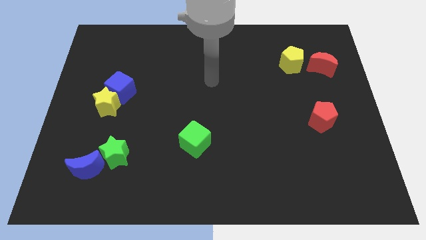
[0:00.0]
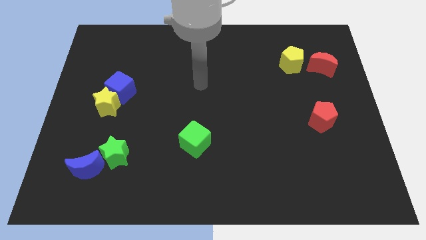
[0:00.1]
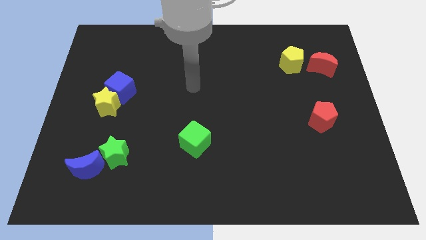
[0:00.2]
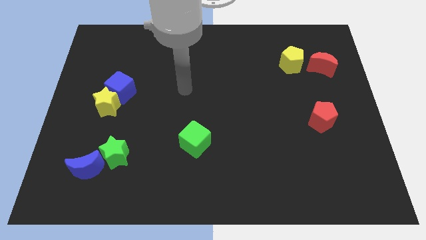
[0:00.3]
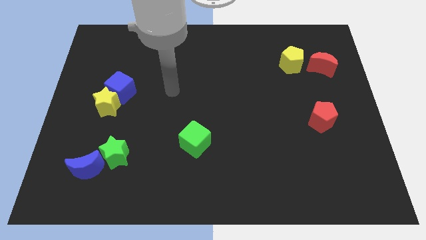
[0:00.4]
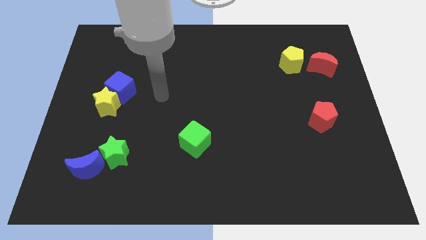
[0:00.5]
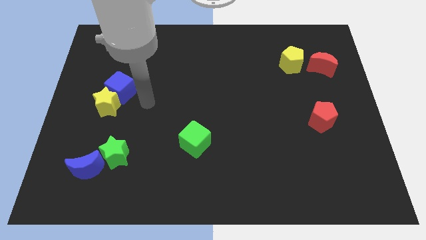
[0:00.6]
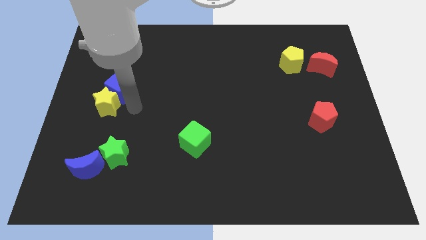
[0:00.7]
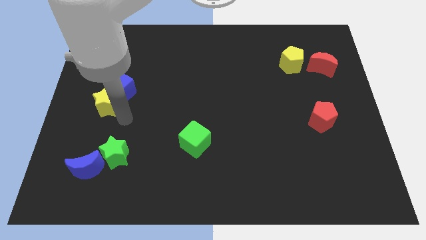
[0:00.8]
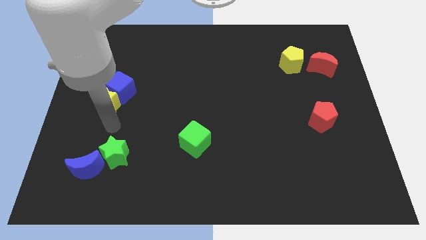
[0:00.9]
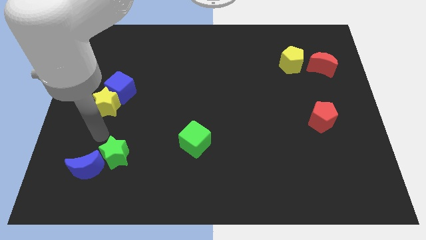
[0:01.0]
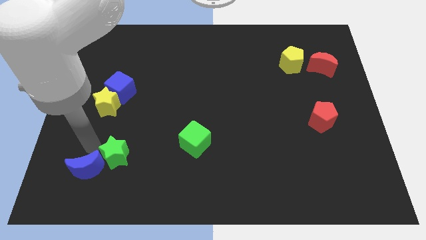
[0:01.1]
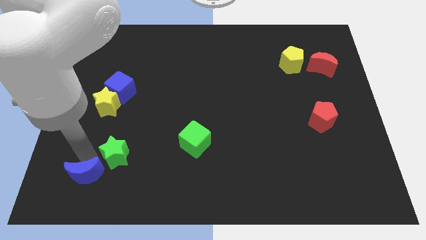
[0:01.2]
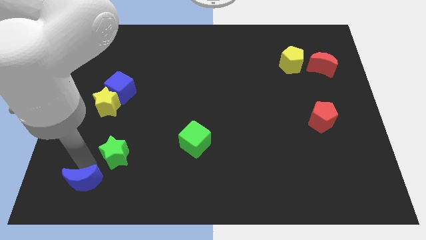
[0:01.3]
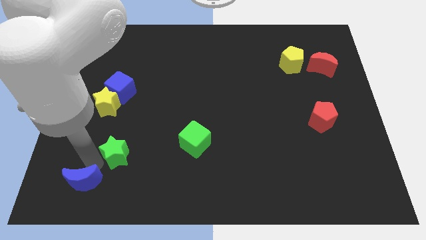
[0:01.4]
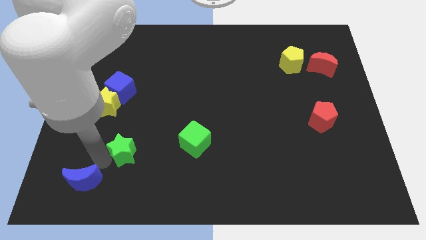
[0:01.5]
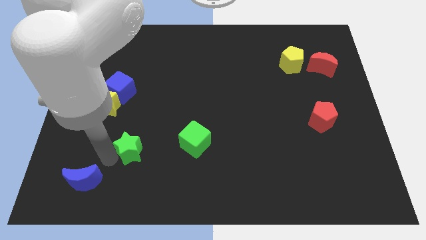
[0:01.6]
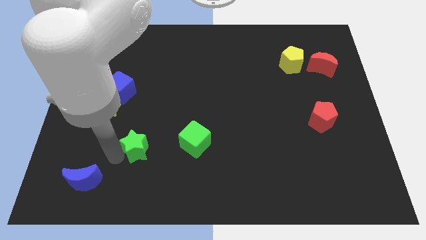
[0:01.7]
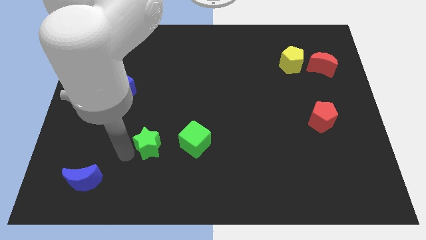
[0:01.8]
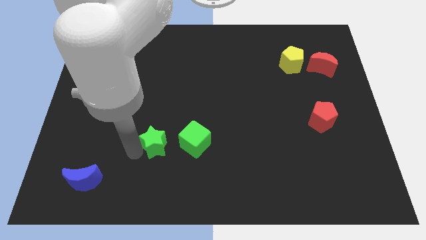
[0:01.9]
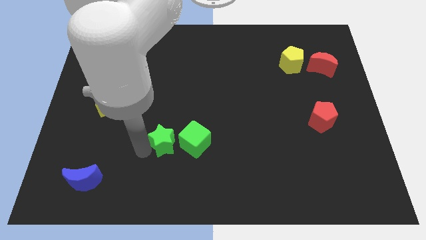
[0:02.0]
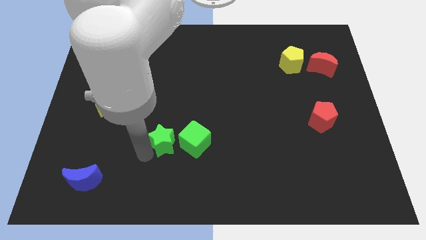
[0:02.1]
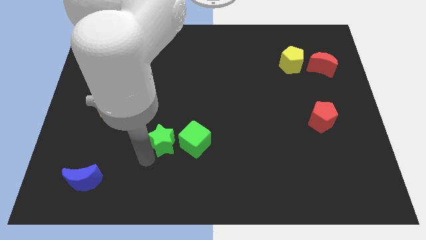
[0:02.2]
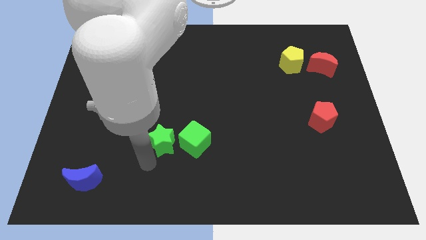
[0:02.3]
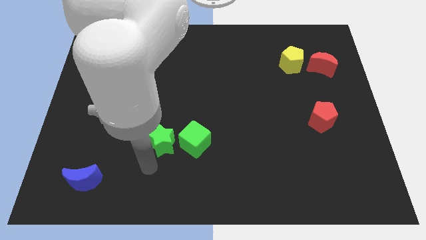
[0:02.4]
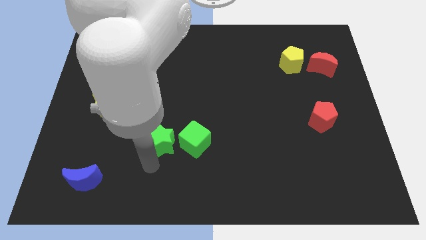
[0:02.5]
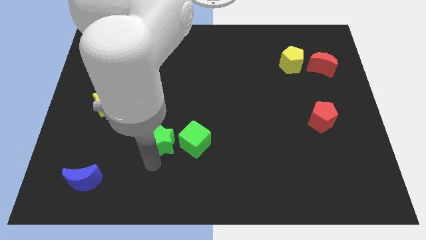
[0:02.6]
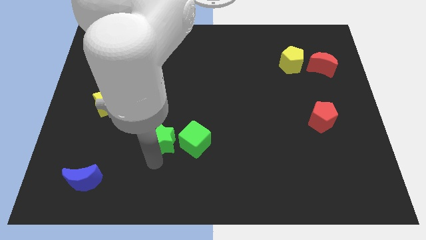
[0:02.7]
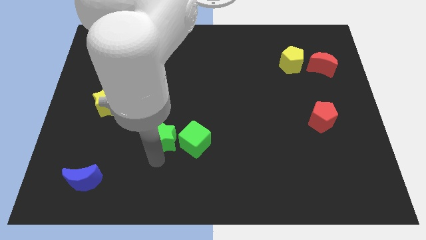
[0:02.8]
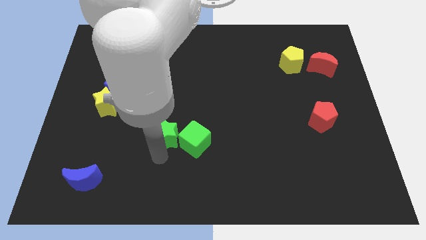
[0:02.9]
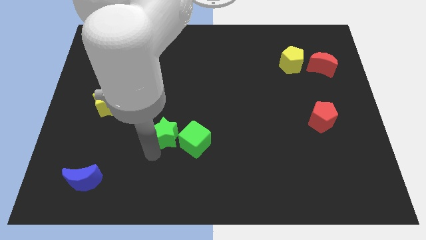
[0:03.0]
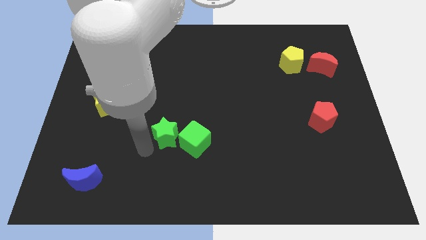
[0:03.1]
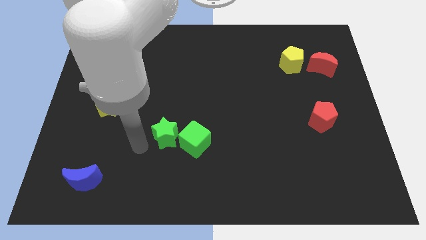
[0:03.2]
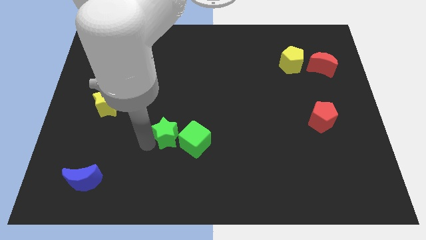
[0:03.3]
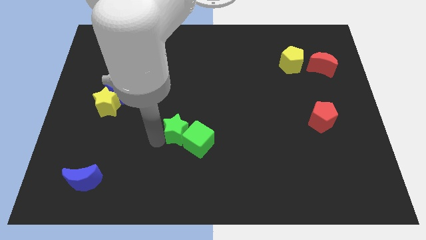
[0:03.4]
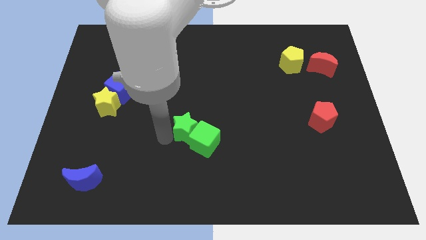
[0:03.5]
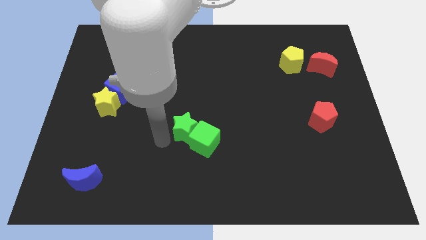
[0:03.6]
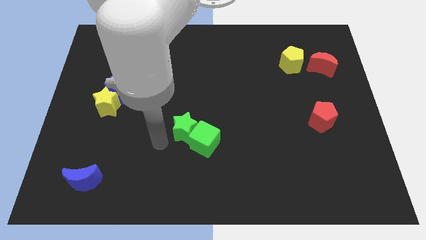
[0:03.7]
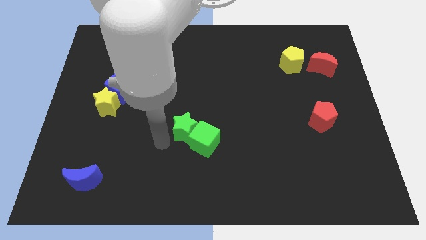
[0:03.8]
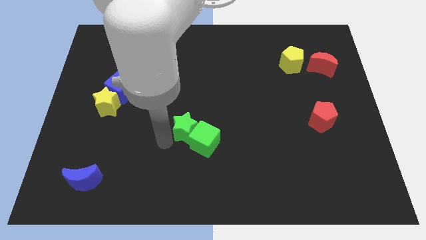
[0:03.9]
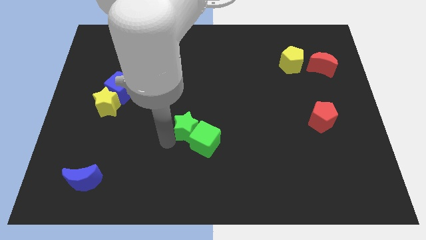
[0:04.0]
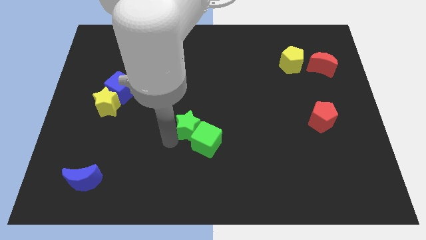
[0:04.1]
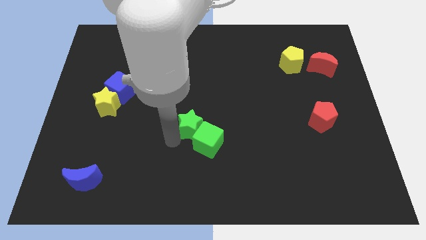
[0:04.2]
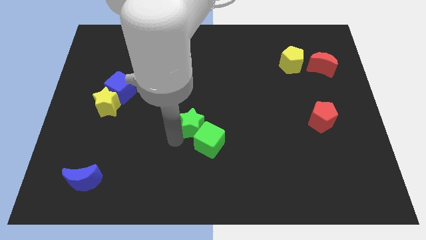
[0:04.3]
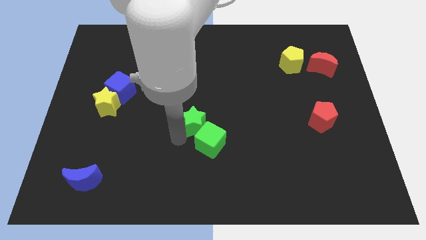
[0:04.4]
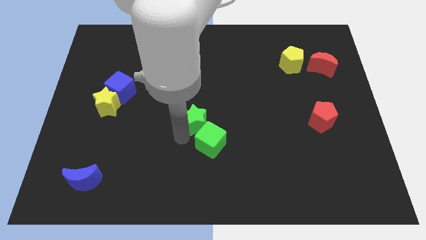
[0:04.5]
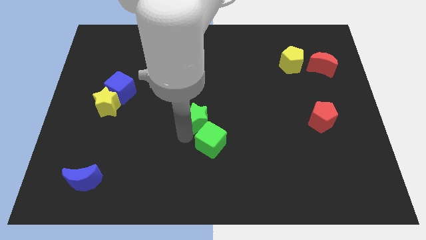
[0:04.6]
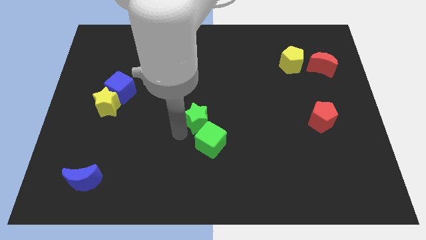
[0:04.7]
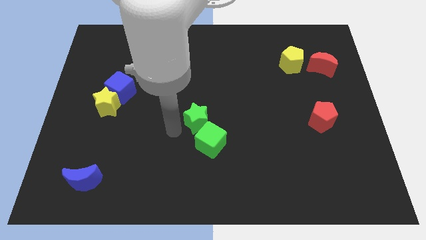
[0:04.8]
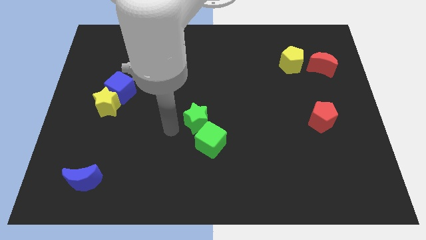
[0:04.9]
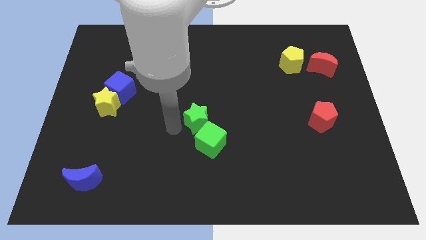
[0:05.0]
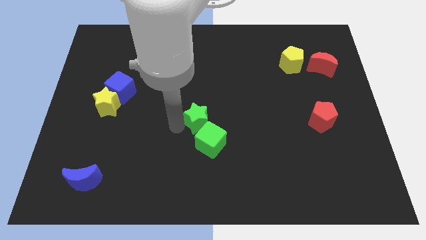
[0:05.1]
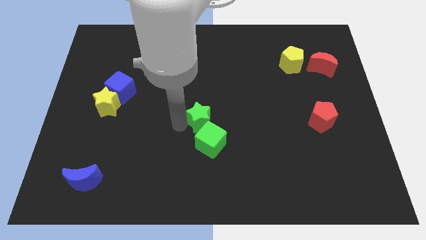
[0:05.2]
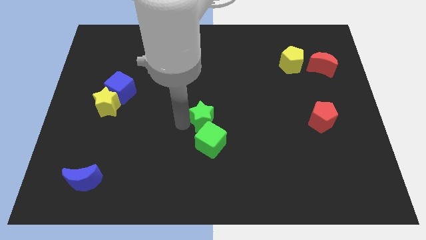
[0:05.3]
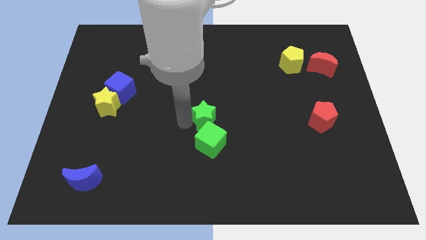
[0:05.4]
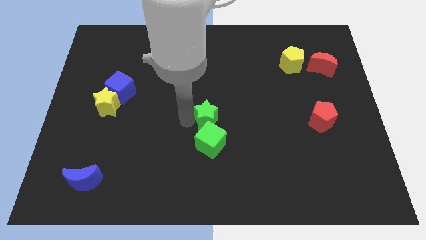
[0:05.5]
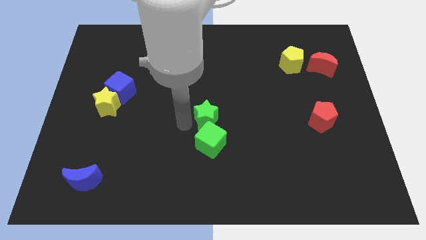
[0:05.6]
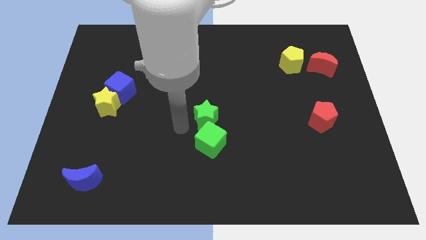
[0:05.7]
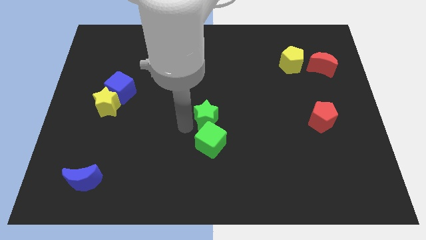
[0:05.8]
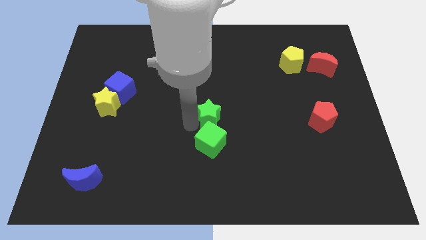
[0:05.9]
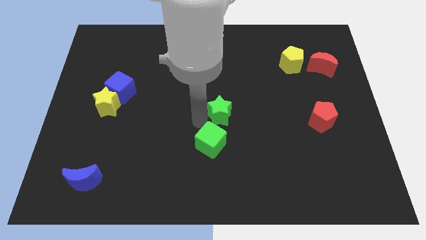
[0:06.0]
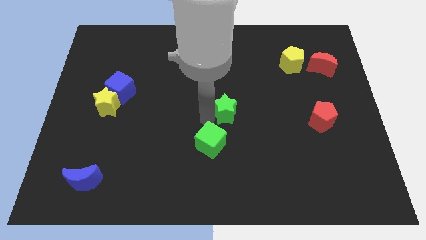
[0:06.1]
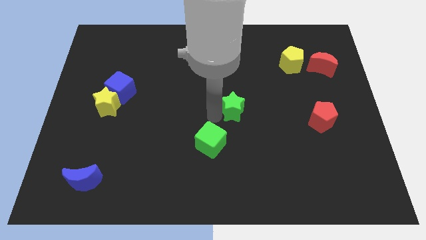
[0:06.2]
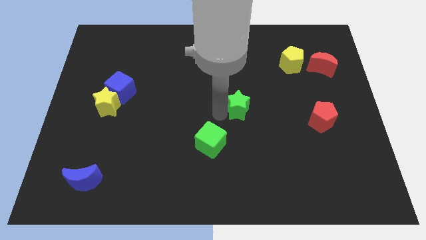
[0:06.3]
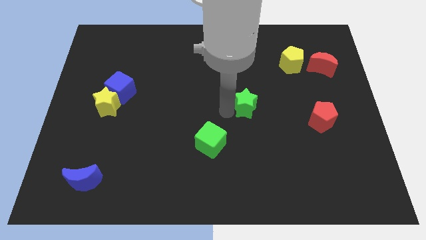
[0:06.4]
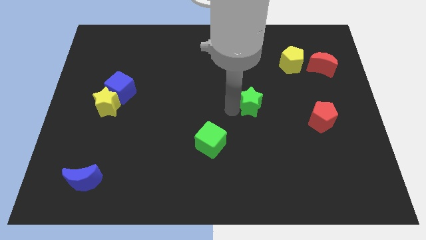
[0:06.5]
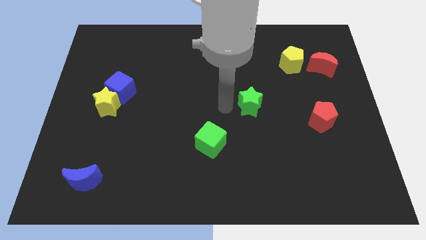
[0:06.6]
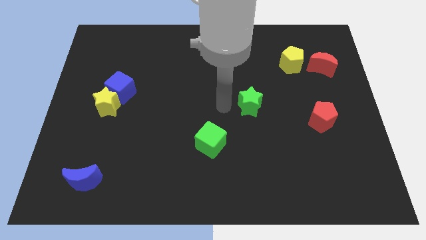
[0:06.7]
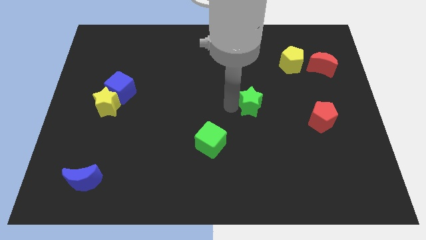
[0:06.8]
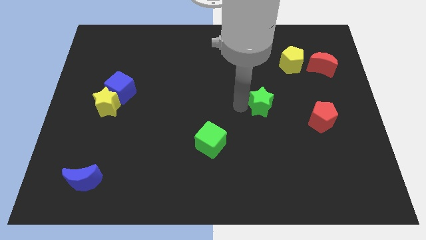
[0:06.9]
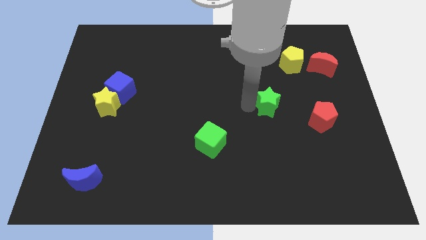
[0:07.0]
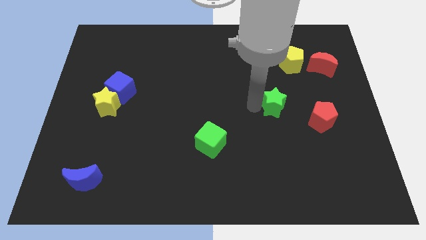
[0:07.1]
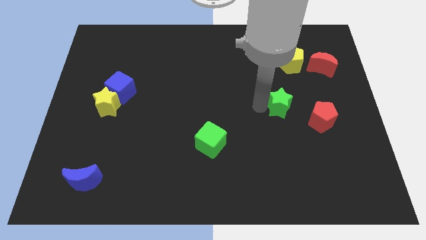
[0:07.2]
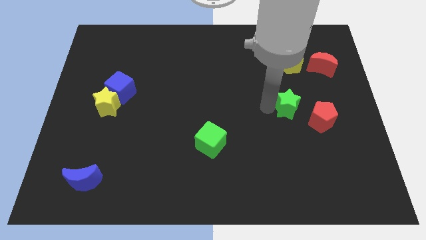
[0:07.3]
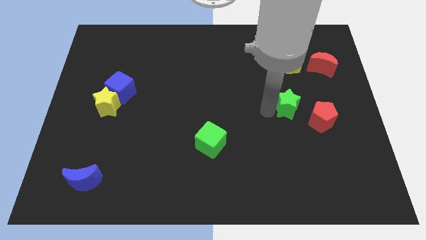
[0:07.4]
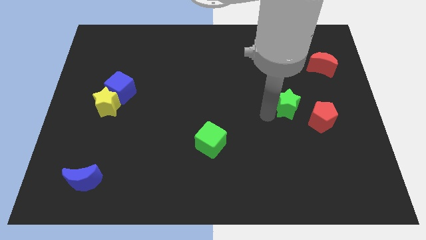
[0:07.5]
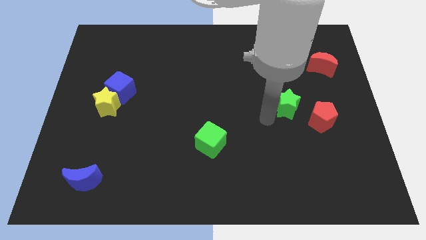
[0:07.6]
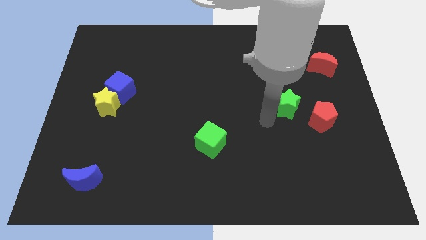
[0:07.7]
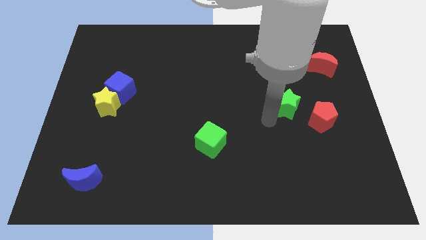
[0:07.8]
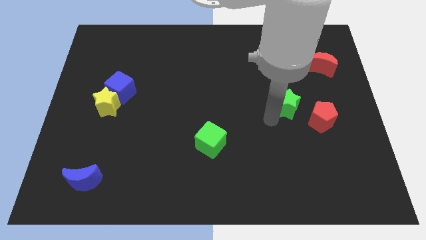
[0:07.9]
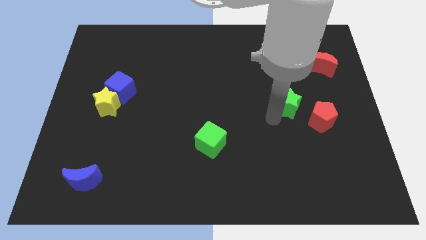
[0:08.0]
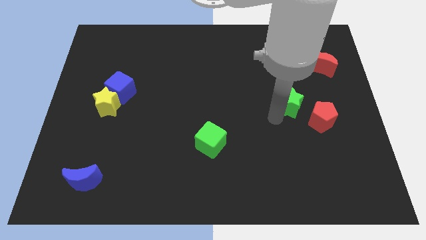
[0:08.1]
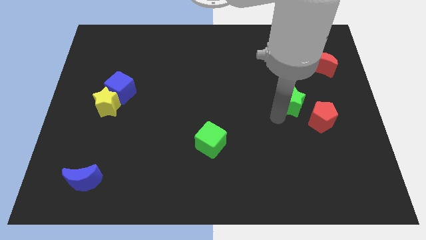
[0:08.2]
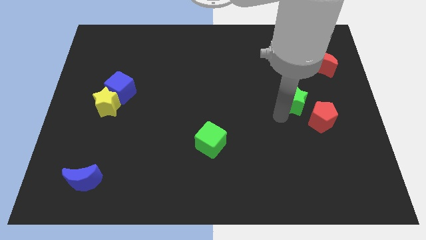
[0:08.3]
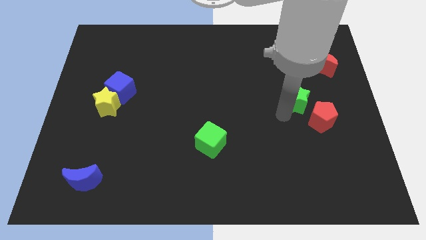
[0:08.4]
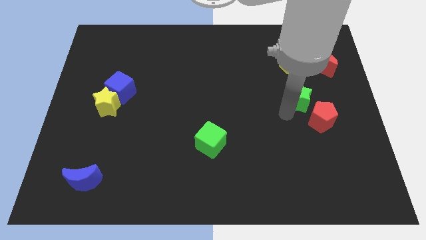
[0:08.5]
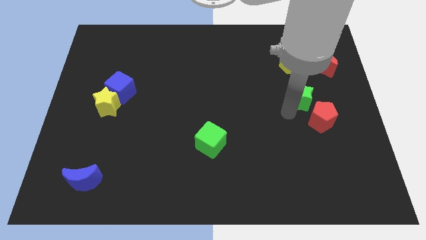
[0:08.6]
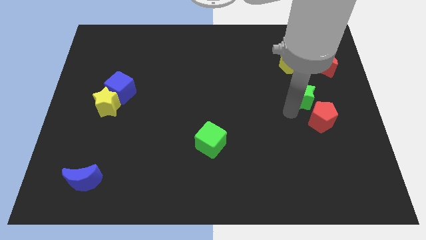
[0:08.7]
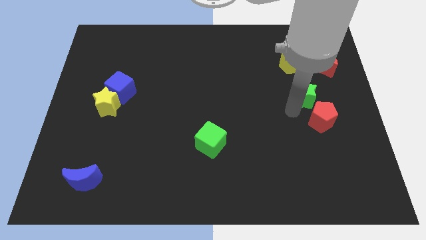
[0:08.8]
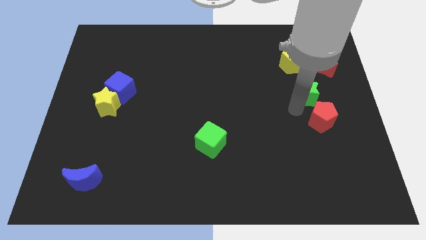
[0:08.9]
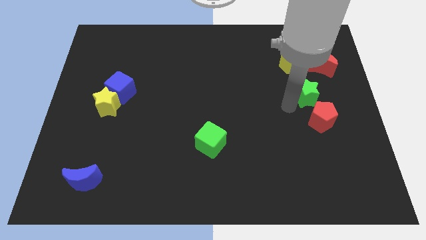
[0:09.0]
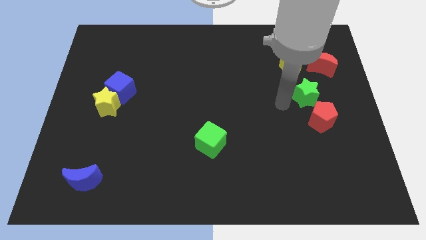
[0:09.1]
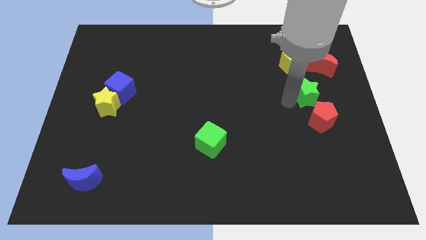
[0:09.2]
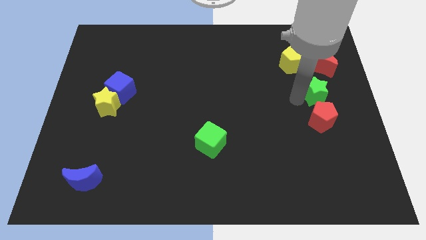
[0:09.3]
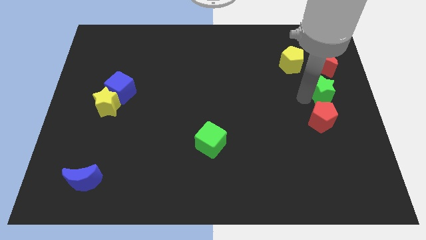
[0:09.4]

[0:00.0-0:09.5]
move the green star to the center right
